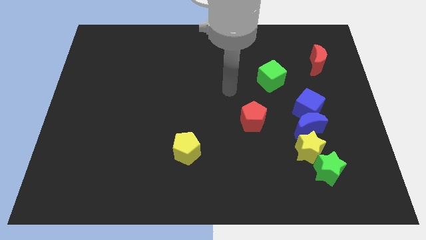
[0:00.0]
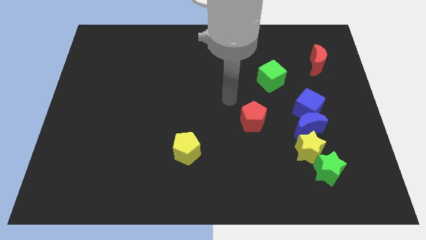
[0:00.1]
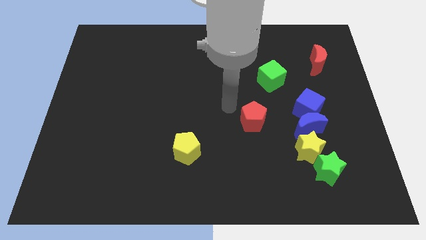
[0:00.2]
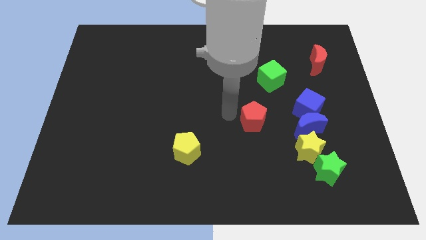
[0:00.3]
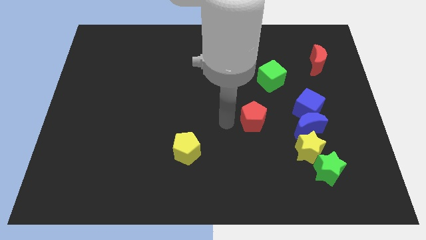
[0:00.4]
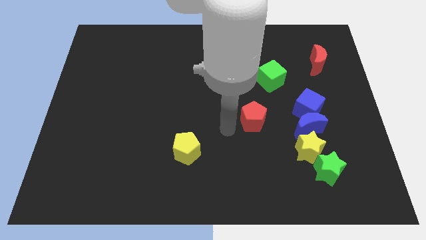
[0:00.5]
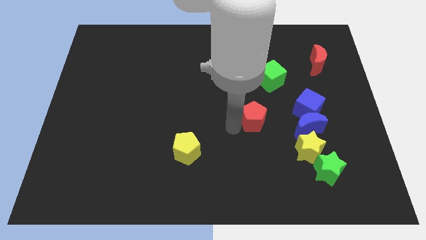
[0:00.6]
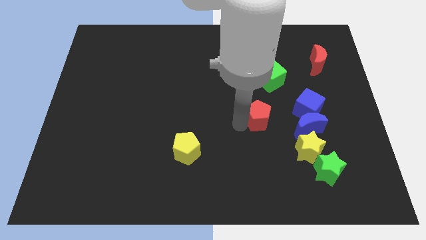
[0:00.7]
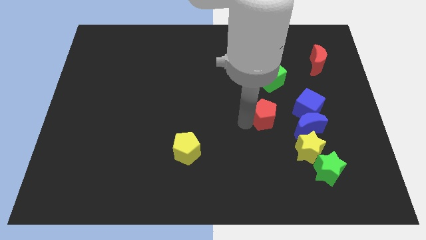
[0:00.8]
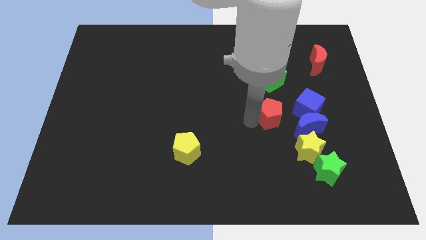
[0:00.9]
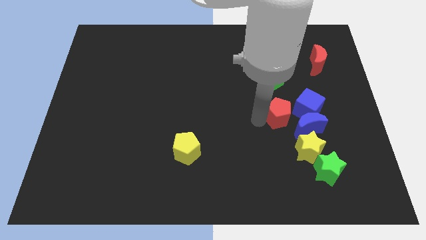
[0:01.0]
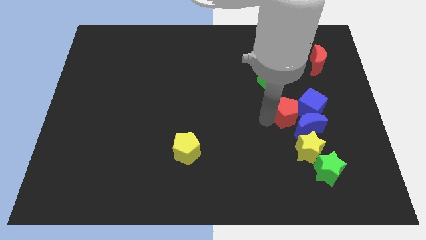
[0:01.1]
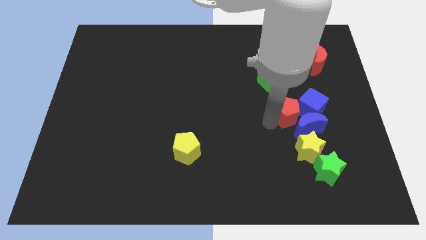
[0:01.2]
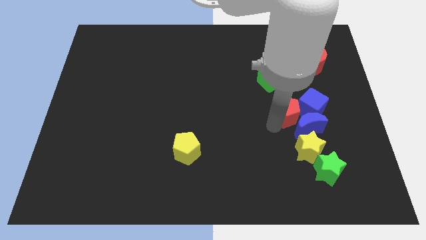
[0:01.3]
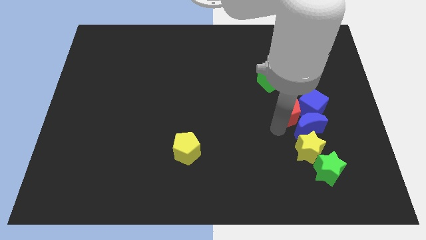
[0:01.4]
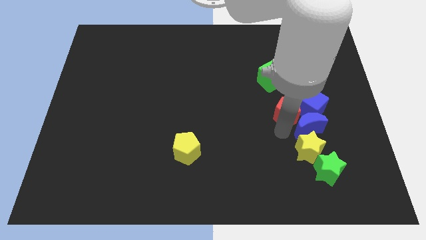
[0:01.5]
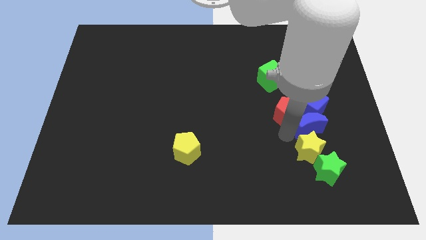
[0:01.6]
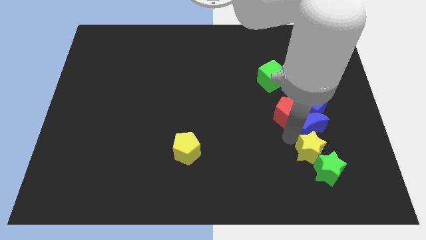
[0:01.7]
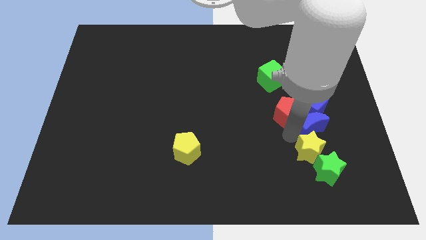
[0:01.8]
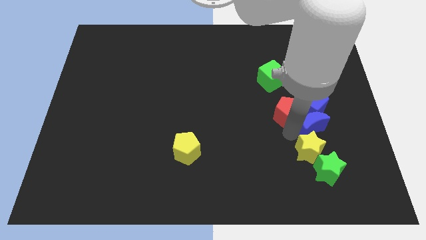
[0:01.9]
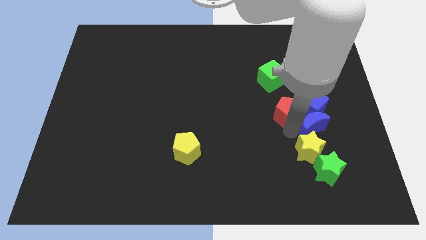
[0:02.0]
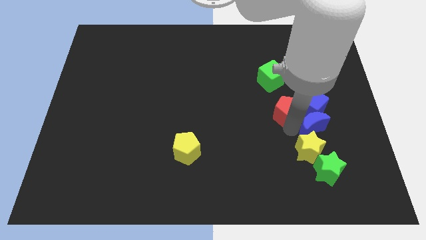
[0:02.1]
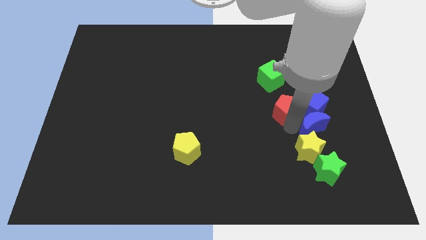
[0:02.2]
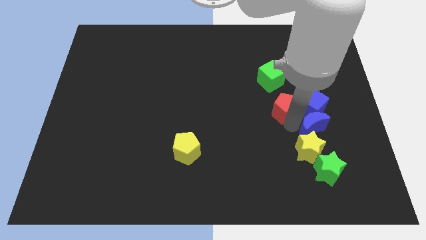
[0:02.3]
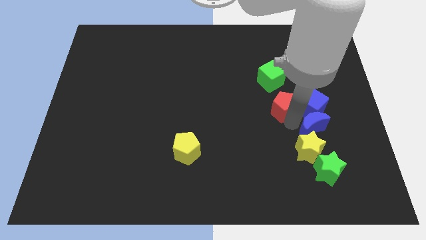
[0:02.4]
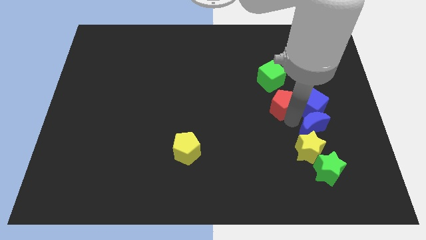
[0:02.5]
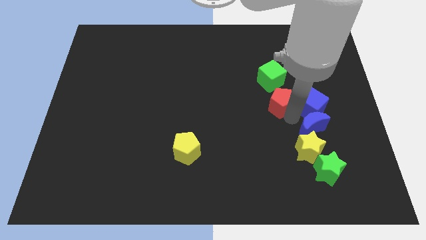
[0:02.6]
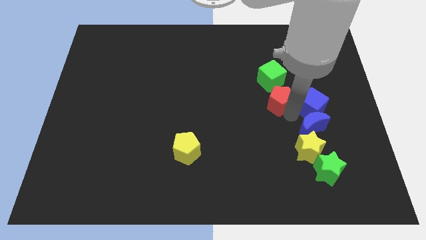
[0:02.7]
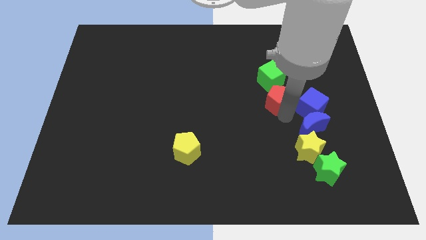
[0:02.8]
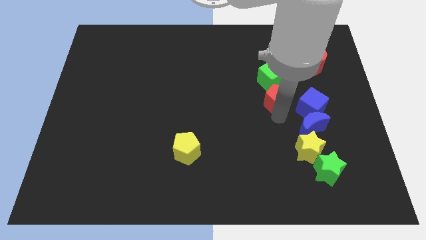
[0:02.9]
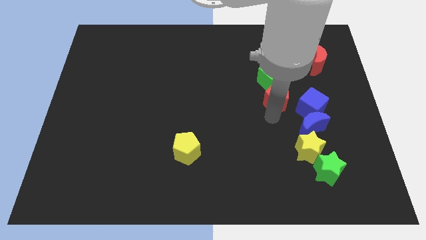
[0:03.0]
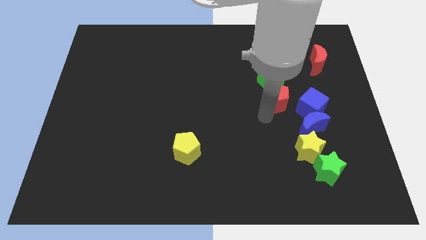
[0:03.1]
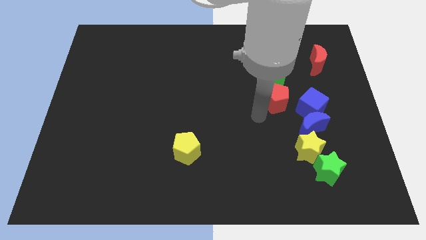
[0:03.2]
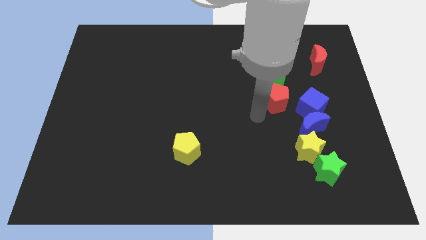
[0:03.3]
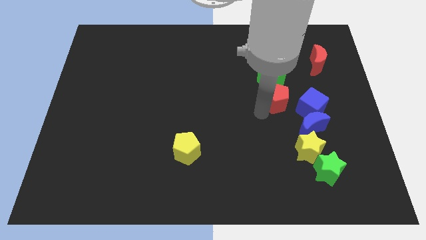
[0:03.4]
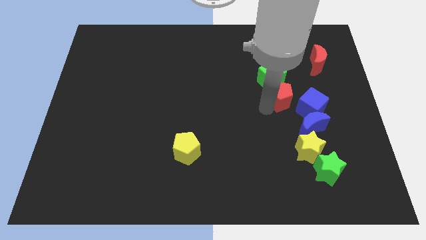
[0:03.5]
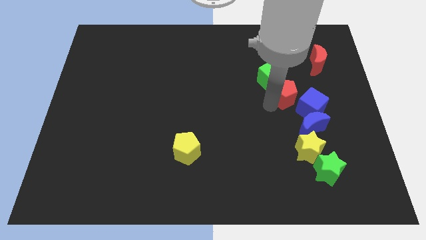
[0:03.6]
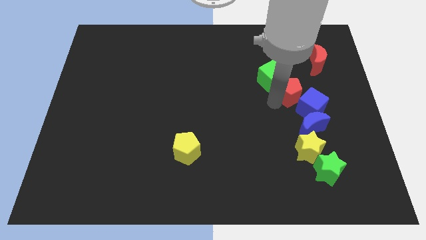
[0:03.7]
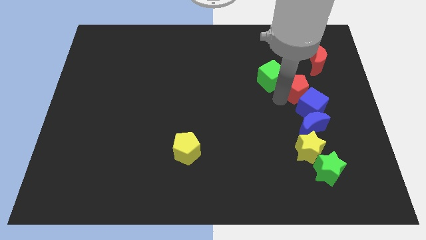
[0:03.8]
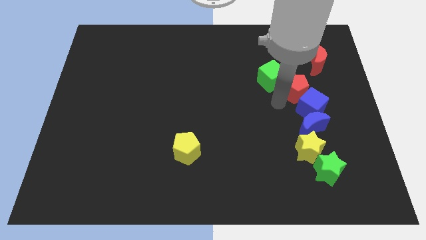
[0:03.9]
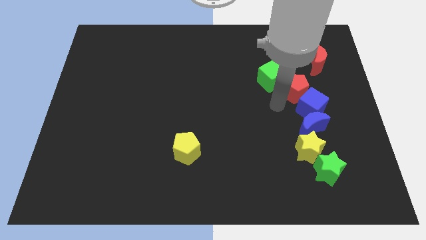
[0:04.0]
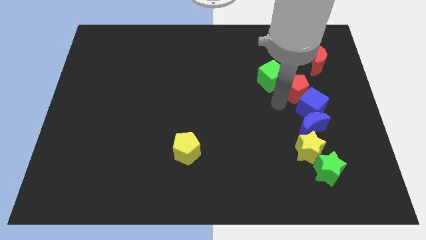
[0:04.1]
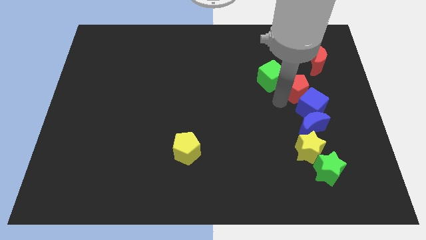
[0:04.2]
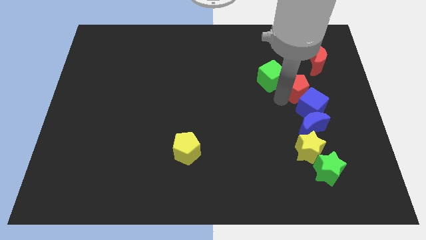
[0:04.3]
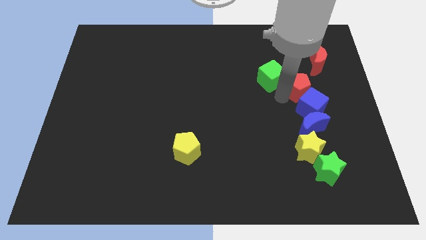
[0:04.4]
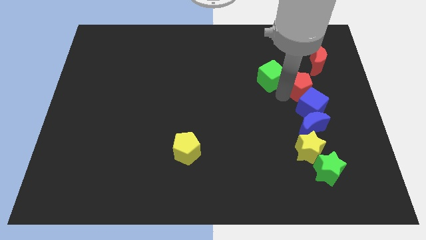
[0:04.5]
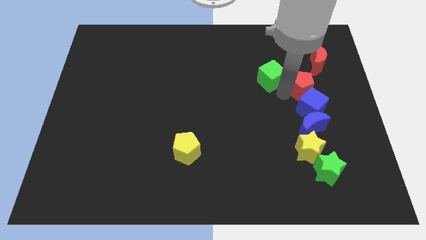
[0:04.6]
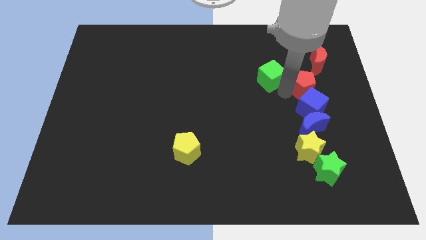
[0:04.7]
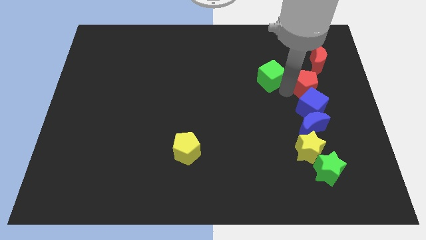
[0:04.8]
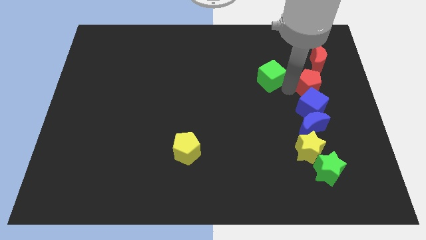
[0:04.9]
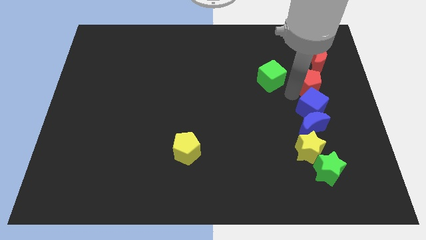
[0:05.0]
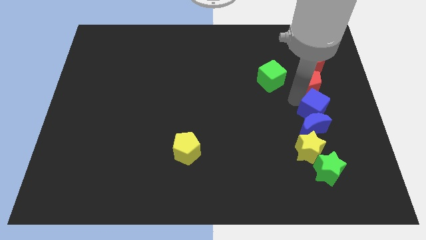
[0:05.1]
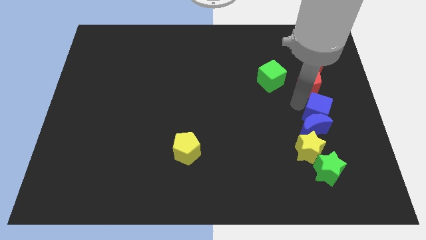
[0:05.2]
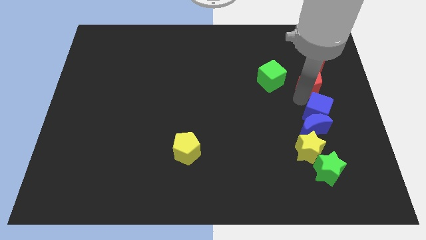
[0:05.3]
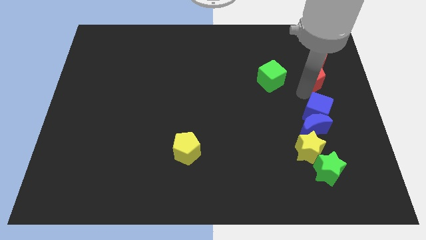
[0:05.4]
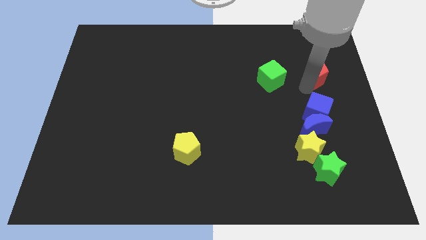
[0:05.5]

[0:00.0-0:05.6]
put the red pentagon close to the red moon

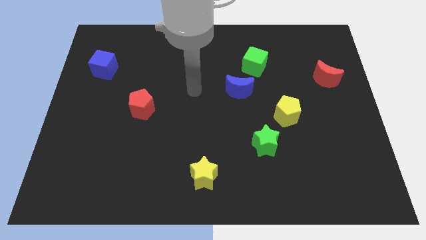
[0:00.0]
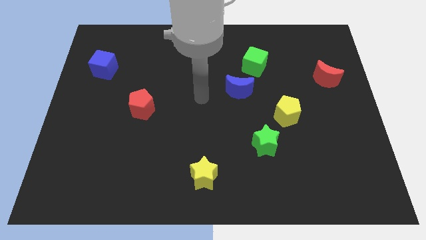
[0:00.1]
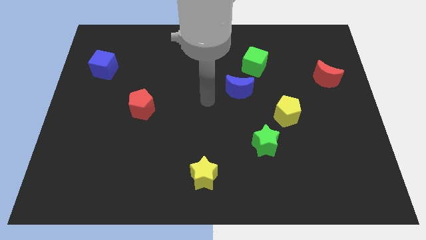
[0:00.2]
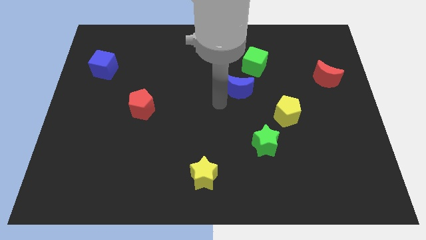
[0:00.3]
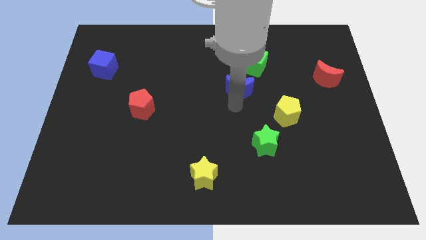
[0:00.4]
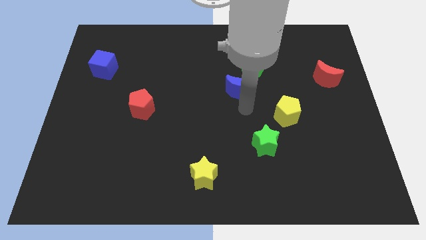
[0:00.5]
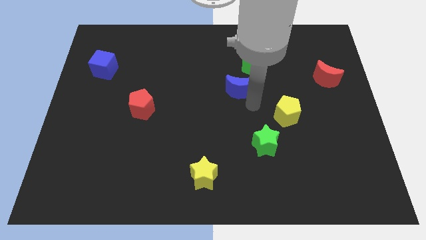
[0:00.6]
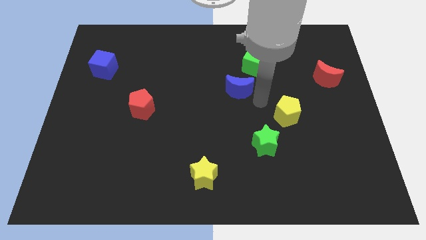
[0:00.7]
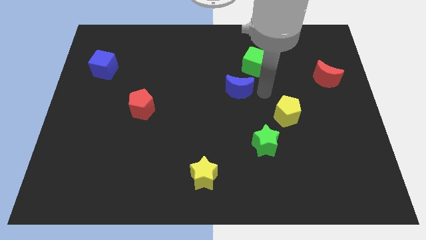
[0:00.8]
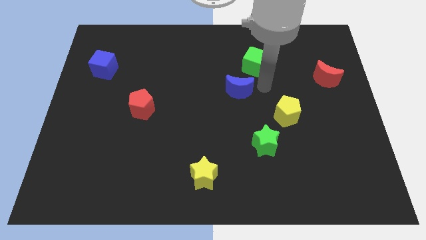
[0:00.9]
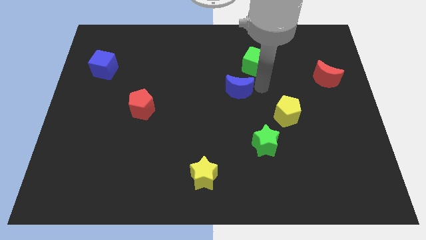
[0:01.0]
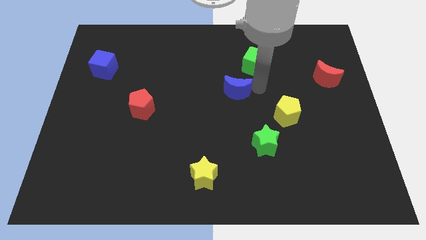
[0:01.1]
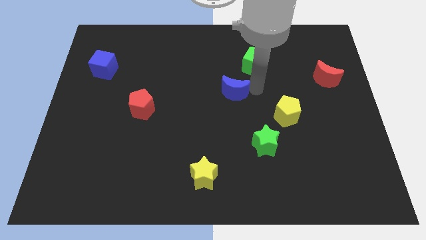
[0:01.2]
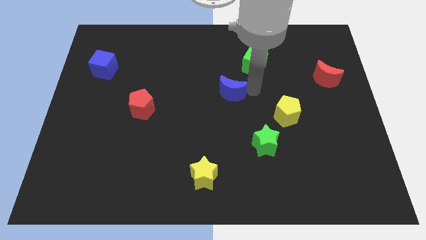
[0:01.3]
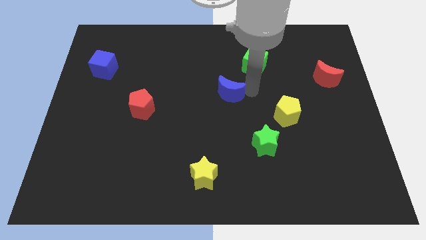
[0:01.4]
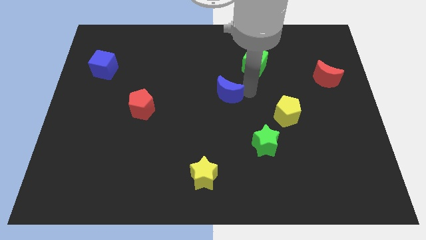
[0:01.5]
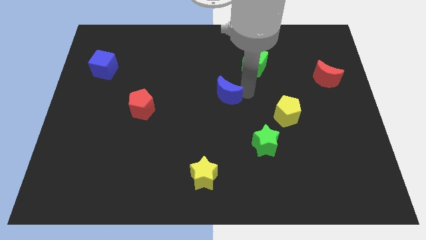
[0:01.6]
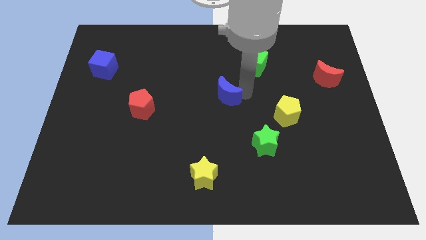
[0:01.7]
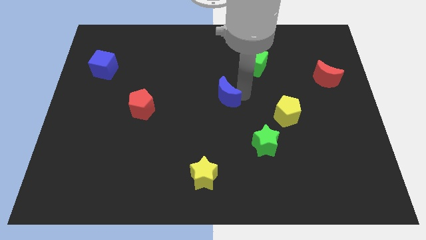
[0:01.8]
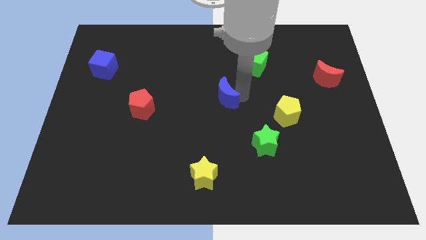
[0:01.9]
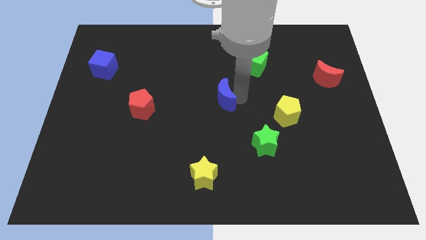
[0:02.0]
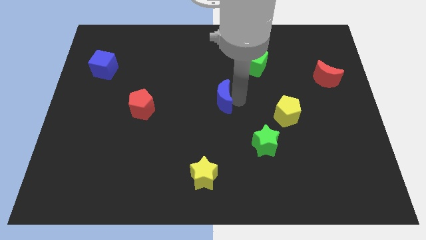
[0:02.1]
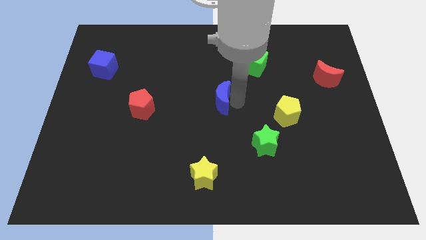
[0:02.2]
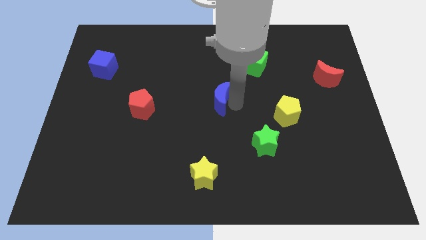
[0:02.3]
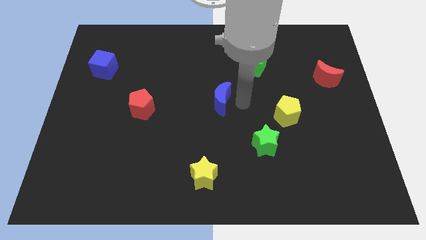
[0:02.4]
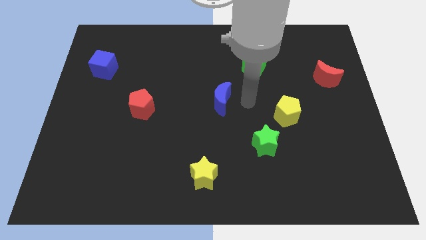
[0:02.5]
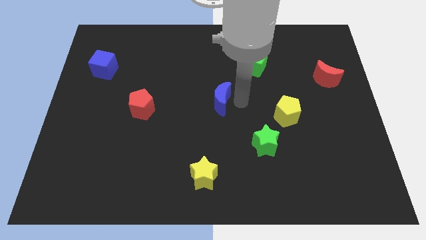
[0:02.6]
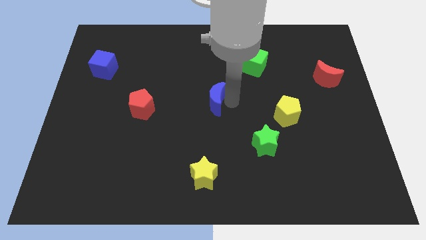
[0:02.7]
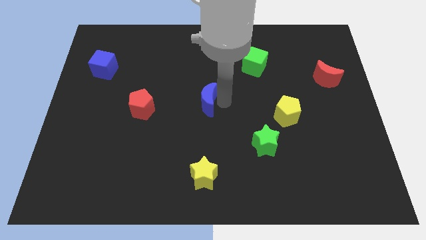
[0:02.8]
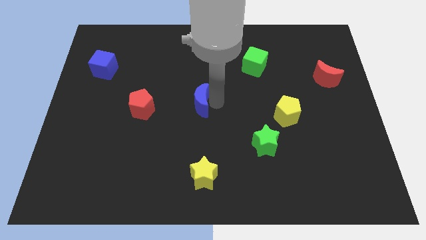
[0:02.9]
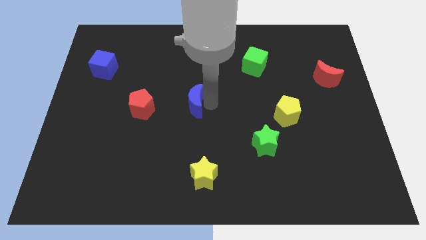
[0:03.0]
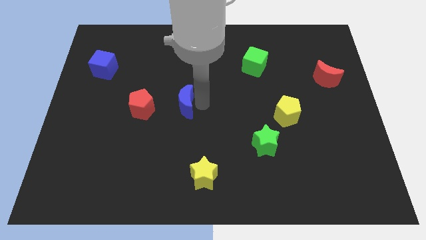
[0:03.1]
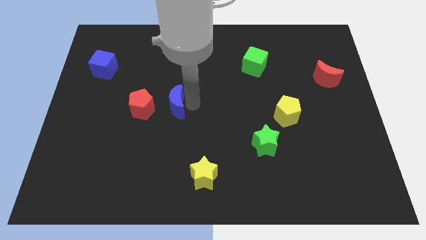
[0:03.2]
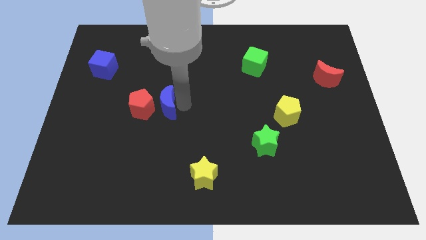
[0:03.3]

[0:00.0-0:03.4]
move the blue moon next to the red pentagon
